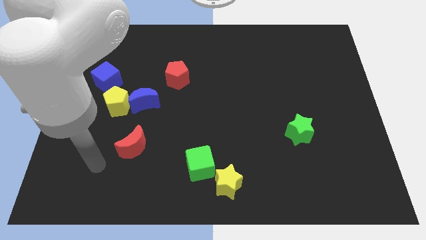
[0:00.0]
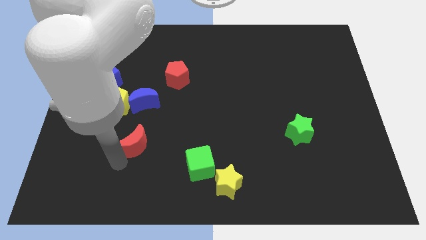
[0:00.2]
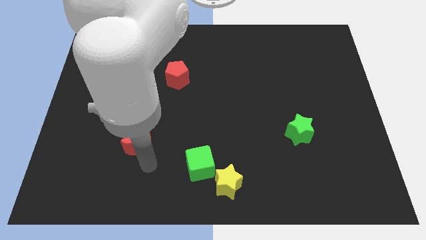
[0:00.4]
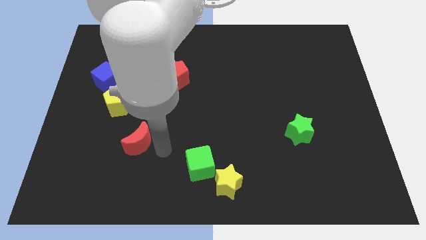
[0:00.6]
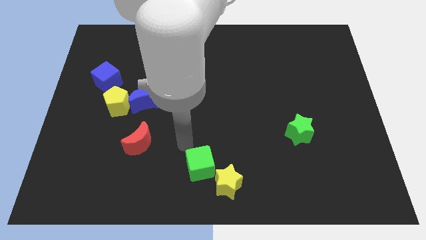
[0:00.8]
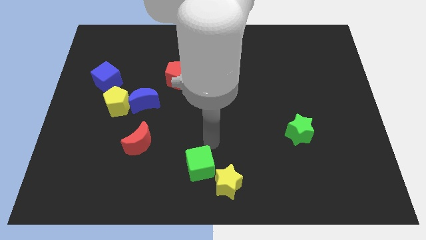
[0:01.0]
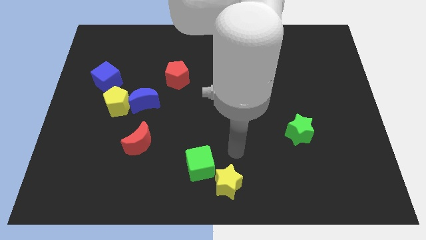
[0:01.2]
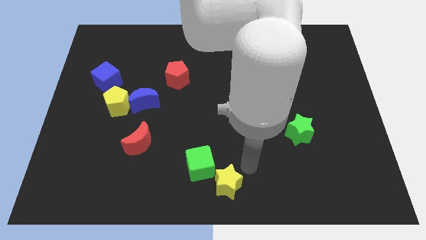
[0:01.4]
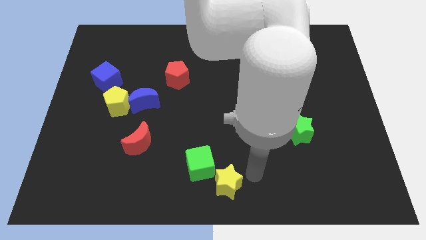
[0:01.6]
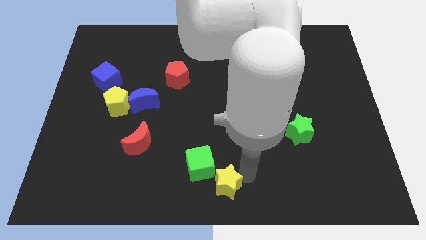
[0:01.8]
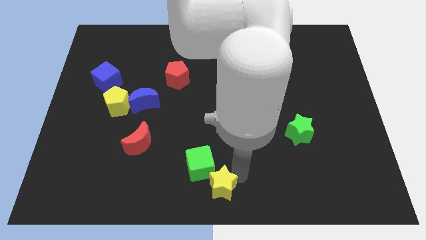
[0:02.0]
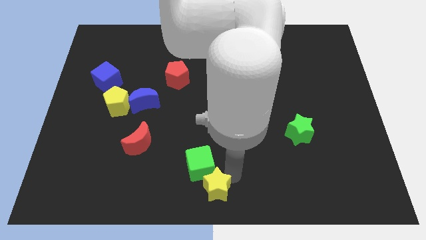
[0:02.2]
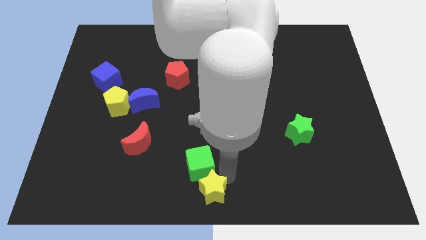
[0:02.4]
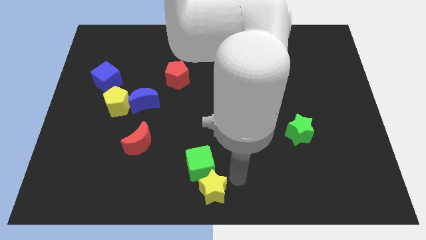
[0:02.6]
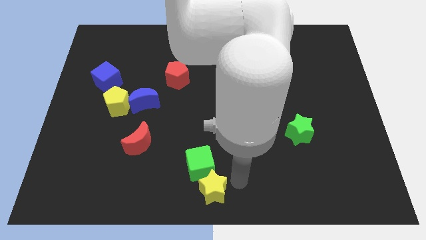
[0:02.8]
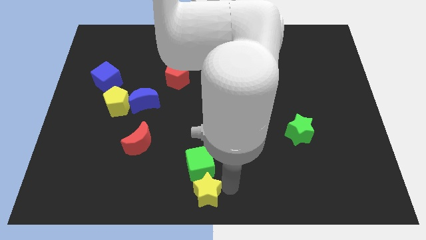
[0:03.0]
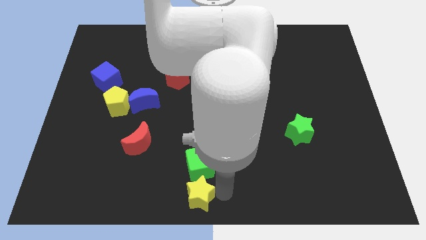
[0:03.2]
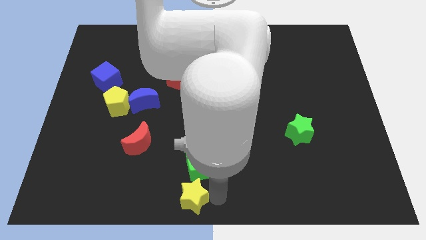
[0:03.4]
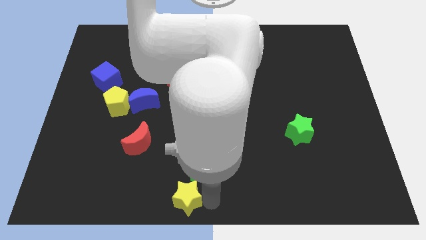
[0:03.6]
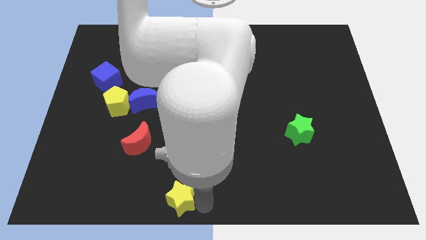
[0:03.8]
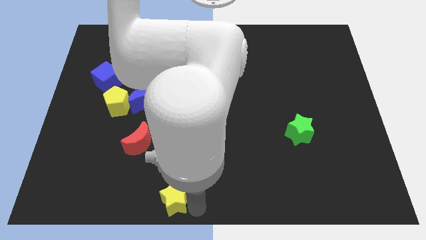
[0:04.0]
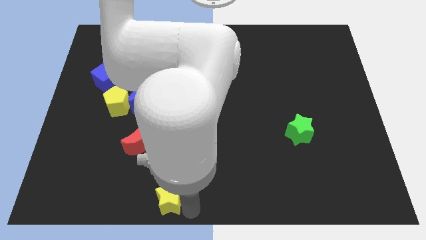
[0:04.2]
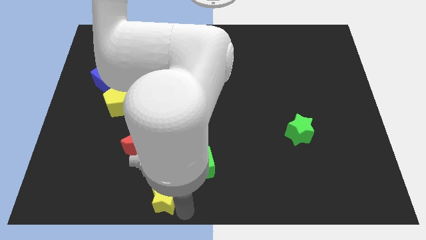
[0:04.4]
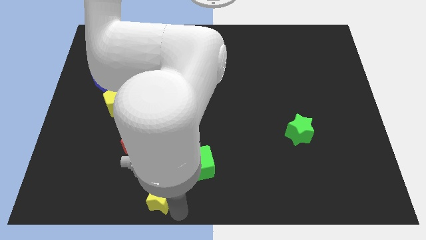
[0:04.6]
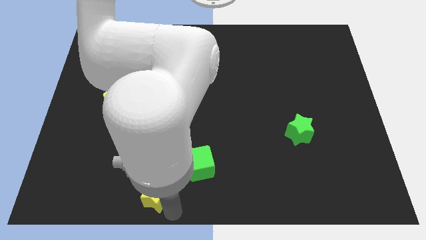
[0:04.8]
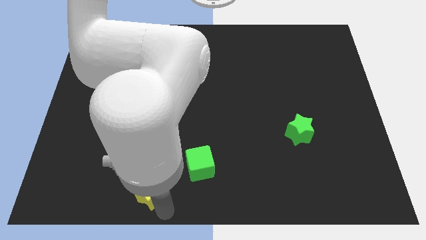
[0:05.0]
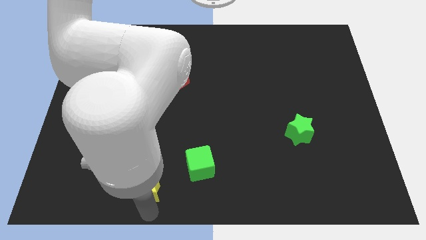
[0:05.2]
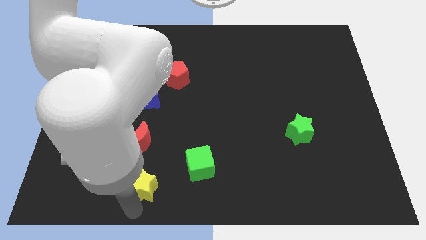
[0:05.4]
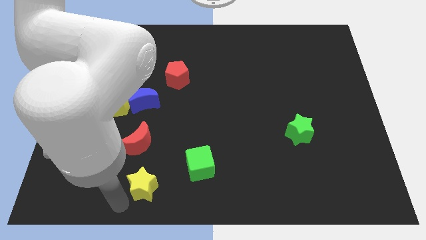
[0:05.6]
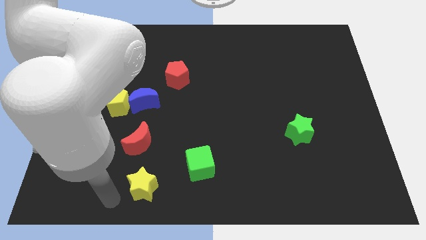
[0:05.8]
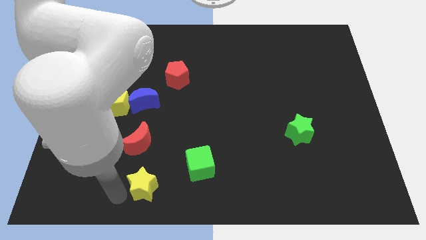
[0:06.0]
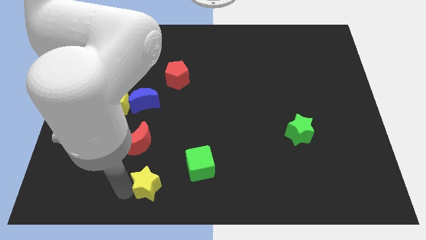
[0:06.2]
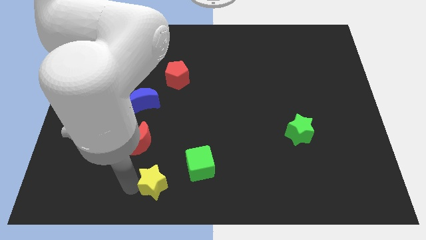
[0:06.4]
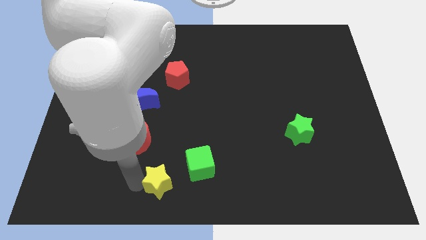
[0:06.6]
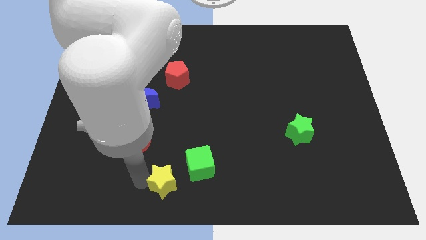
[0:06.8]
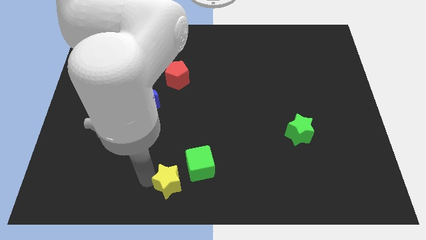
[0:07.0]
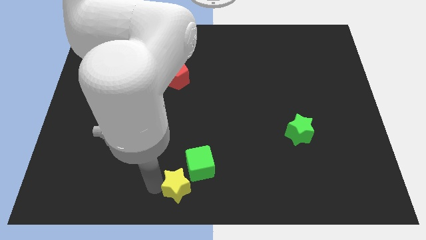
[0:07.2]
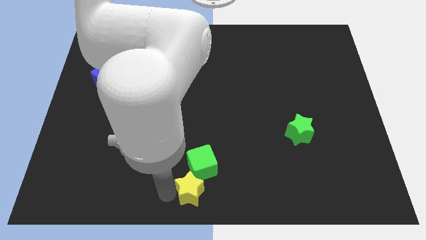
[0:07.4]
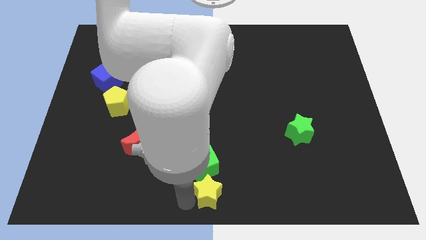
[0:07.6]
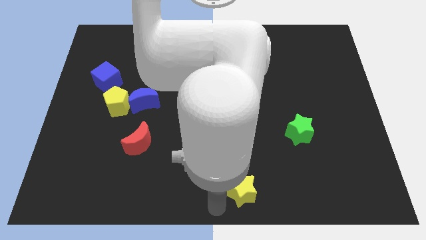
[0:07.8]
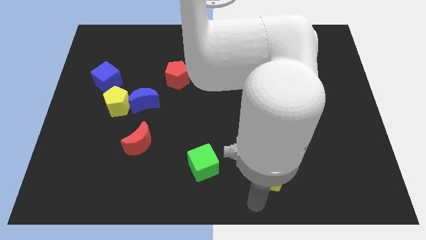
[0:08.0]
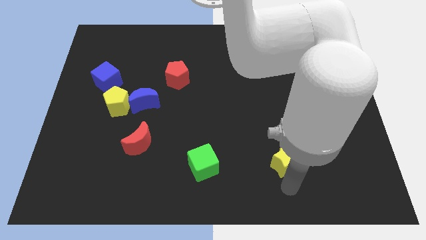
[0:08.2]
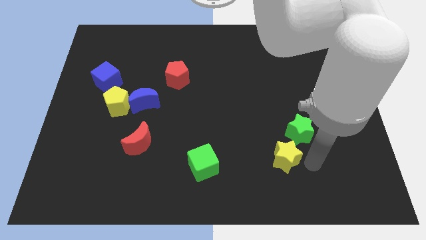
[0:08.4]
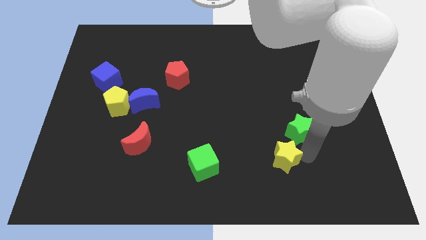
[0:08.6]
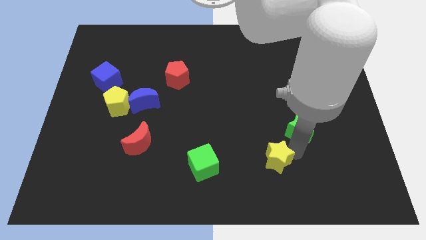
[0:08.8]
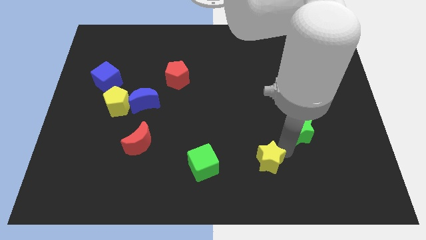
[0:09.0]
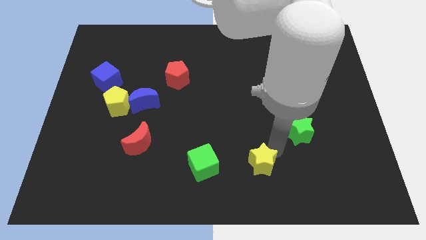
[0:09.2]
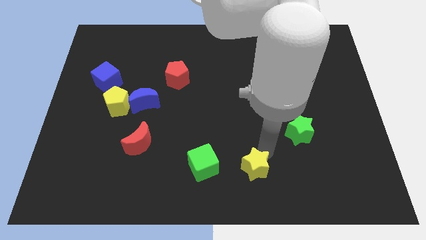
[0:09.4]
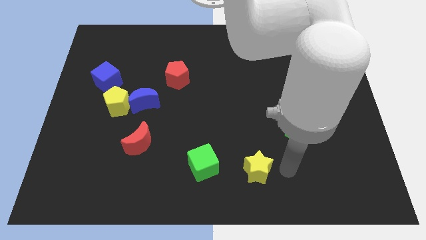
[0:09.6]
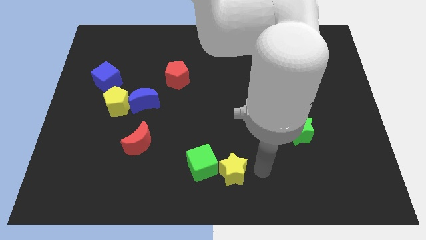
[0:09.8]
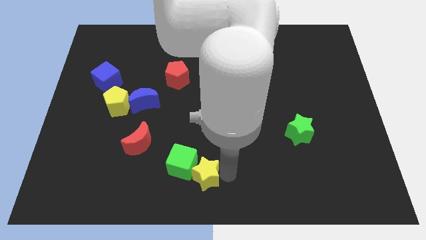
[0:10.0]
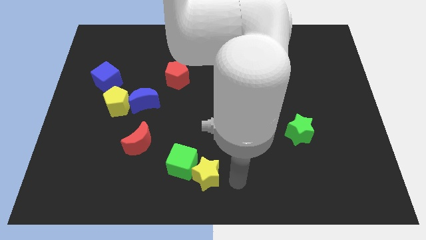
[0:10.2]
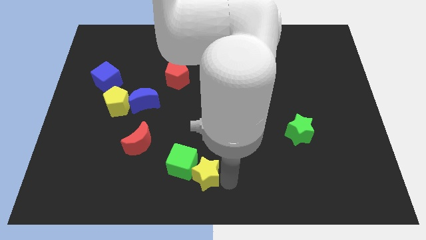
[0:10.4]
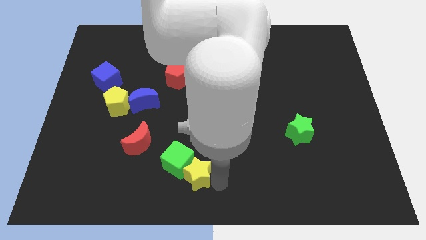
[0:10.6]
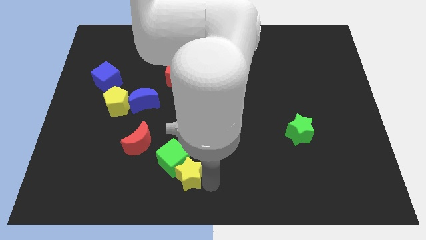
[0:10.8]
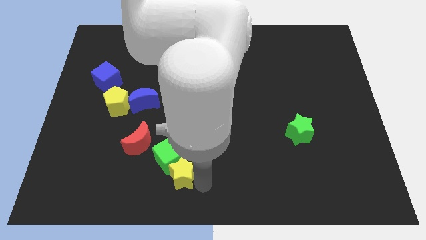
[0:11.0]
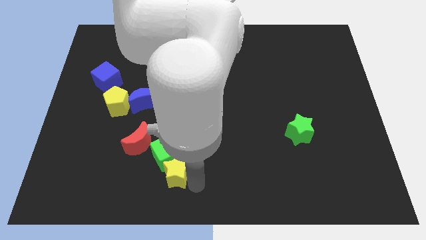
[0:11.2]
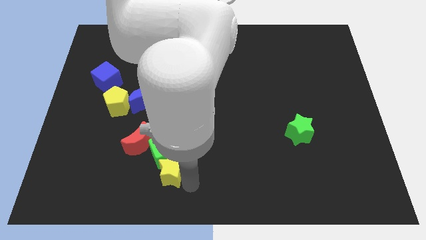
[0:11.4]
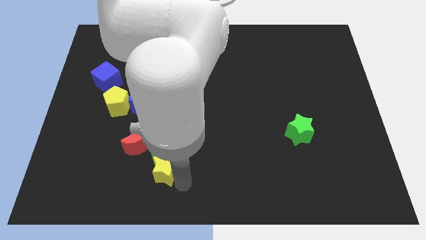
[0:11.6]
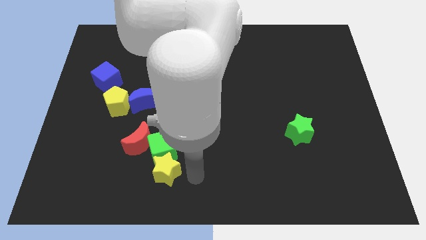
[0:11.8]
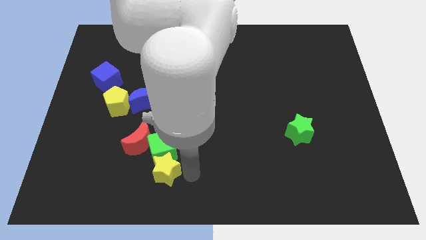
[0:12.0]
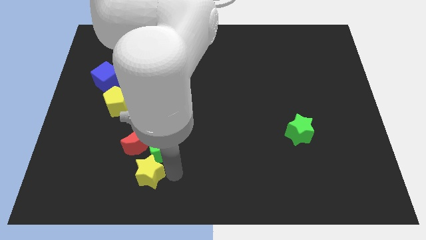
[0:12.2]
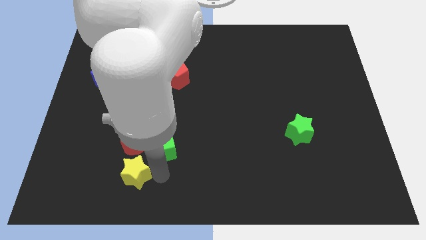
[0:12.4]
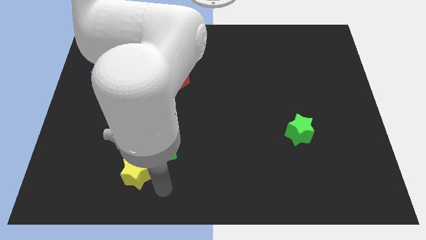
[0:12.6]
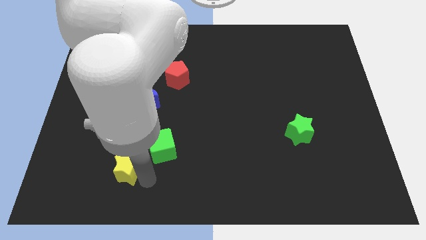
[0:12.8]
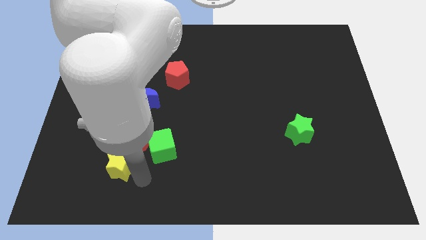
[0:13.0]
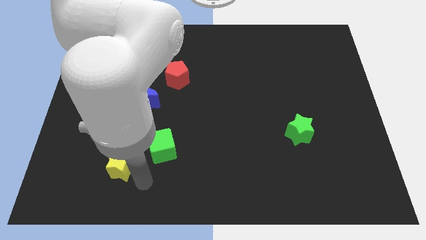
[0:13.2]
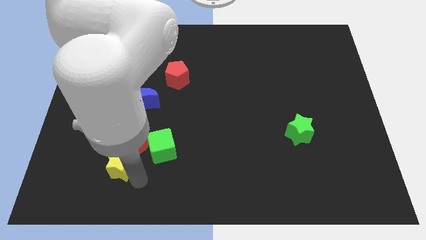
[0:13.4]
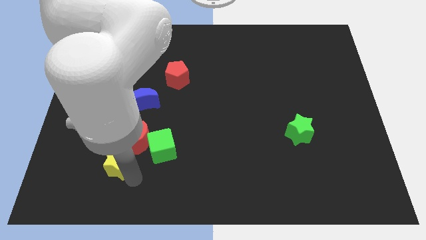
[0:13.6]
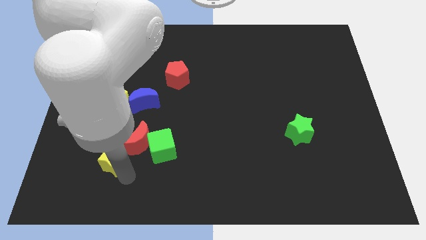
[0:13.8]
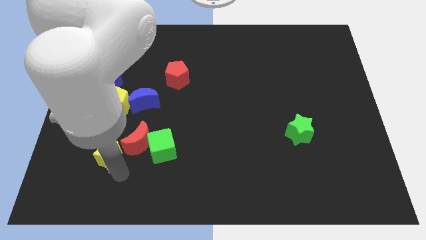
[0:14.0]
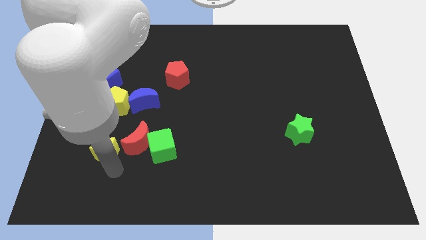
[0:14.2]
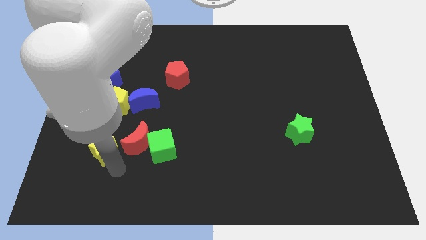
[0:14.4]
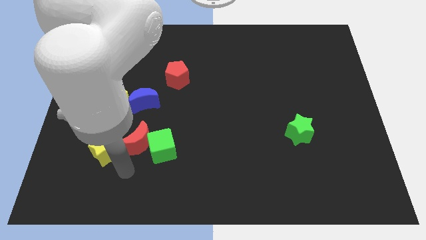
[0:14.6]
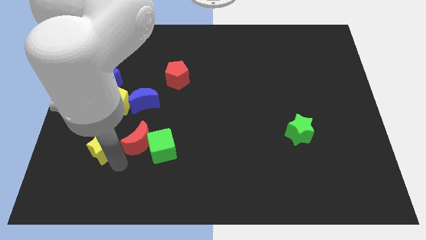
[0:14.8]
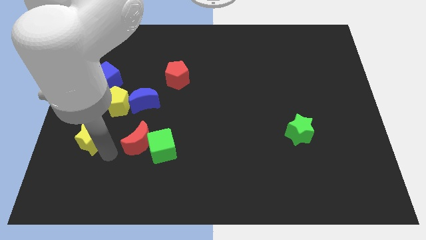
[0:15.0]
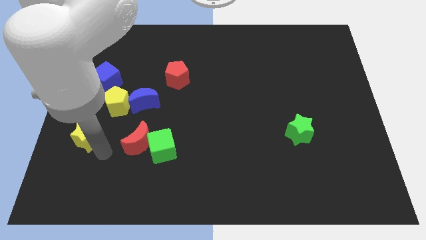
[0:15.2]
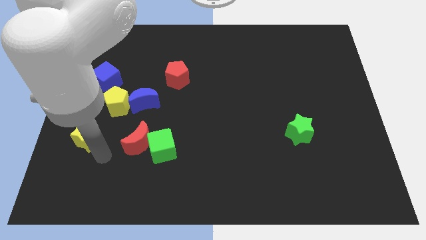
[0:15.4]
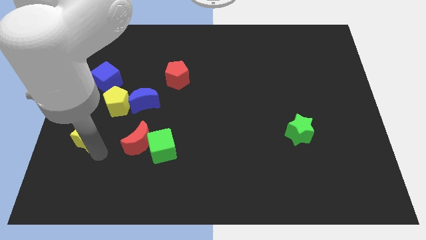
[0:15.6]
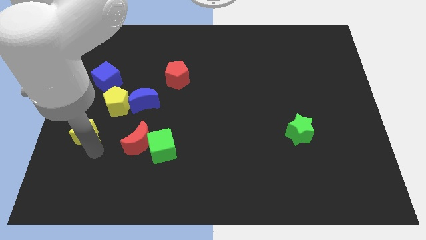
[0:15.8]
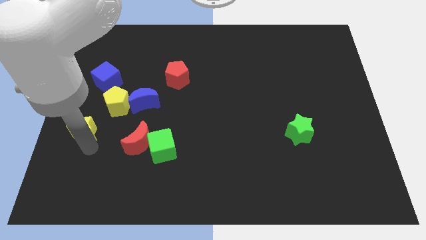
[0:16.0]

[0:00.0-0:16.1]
put the yellow star to the center left
